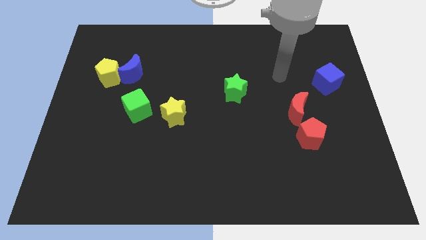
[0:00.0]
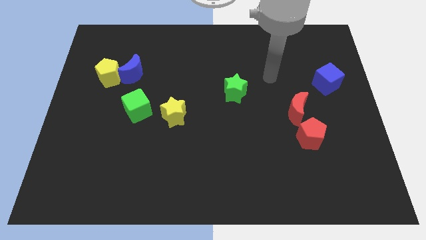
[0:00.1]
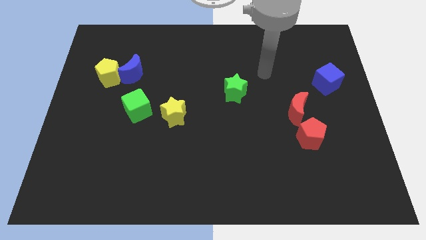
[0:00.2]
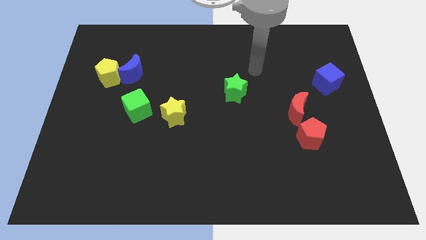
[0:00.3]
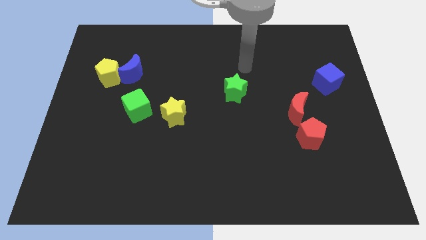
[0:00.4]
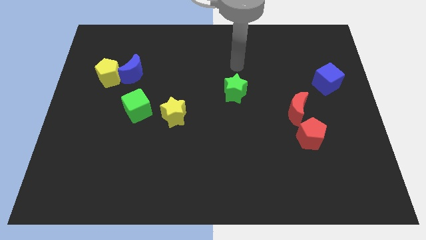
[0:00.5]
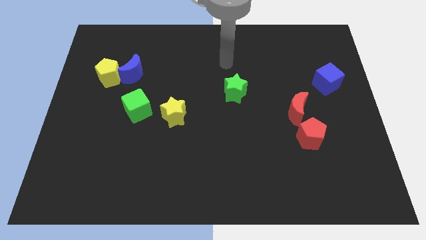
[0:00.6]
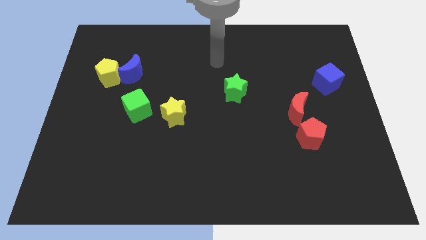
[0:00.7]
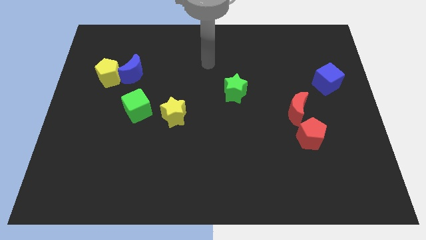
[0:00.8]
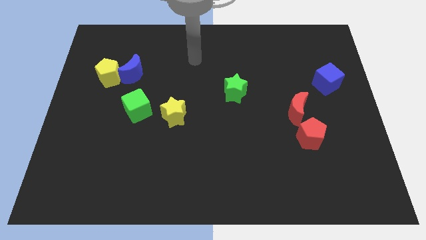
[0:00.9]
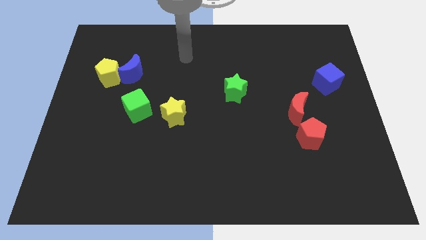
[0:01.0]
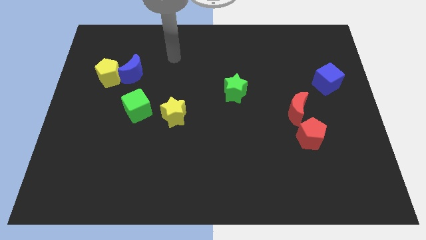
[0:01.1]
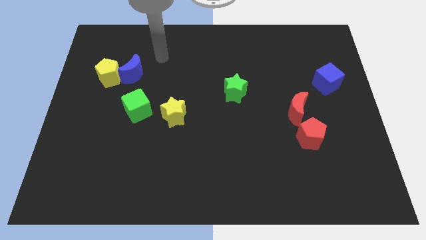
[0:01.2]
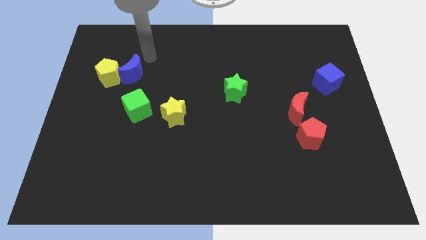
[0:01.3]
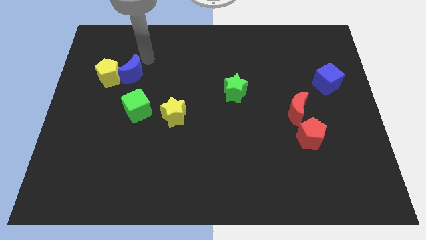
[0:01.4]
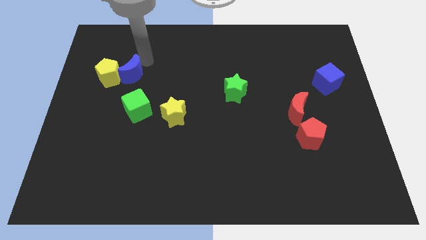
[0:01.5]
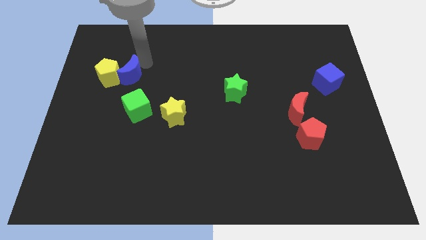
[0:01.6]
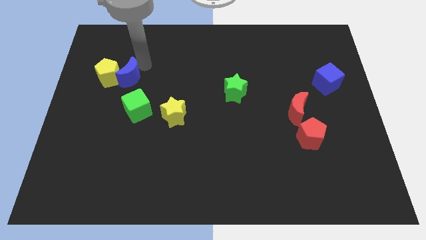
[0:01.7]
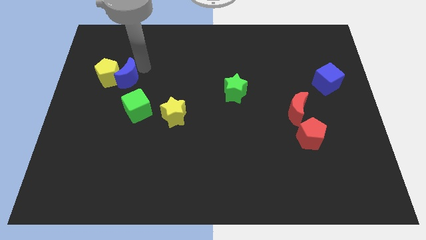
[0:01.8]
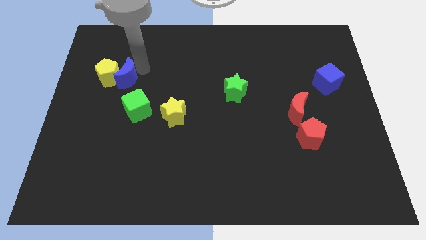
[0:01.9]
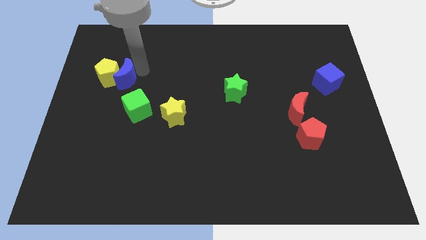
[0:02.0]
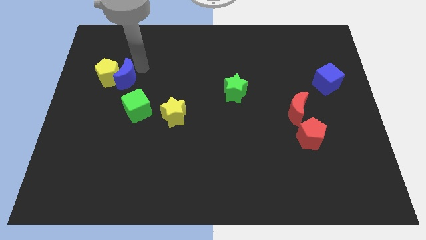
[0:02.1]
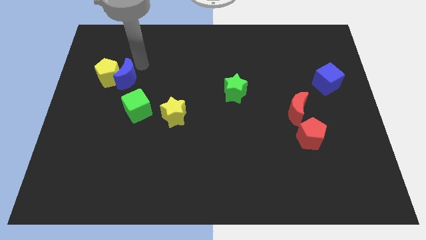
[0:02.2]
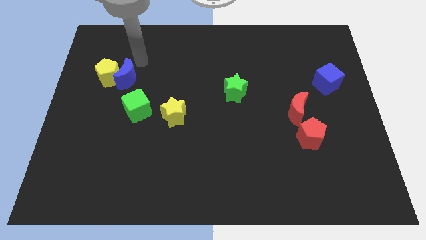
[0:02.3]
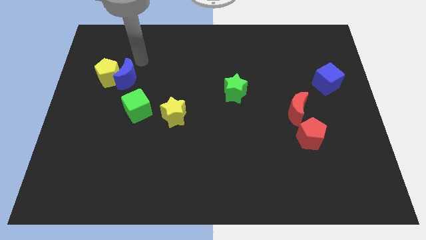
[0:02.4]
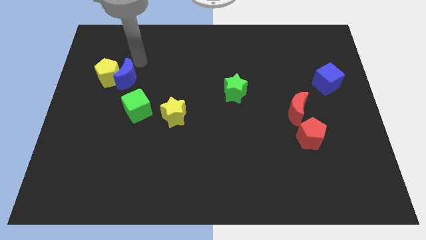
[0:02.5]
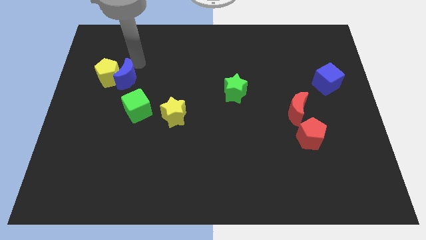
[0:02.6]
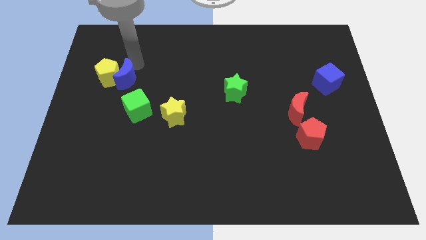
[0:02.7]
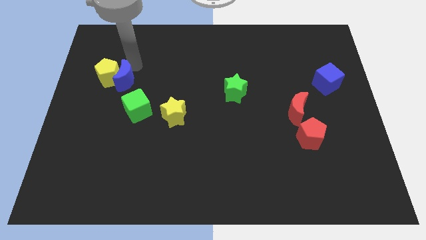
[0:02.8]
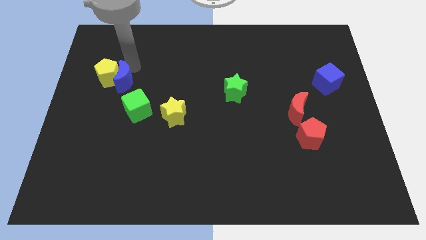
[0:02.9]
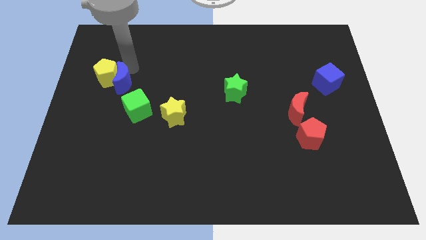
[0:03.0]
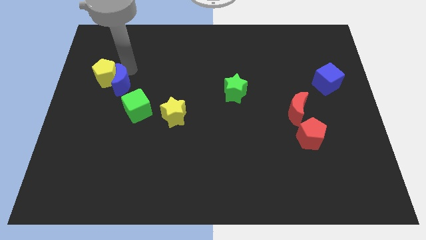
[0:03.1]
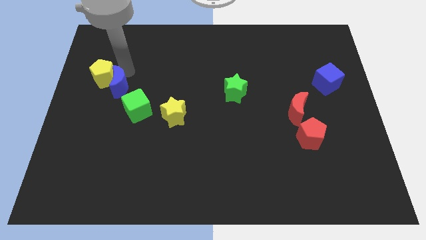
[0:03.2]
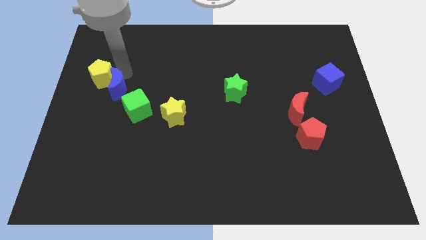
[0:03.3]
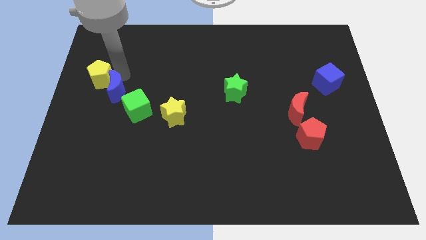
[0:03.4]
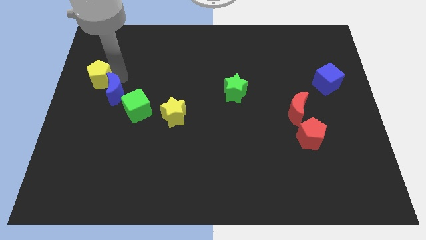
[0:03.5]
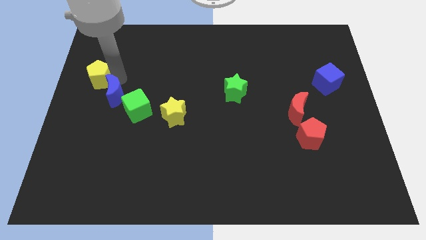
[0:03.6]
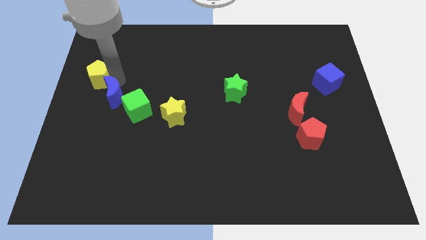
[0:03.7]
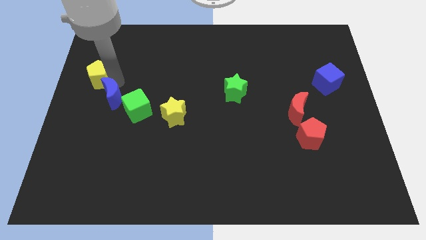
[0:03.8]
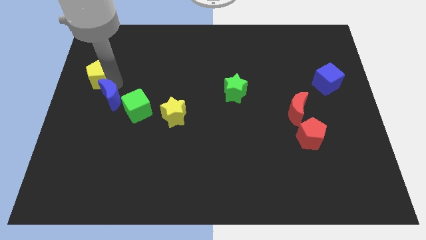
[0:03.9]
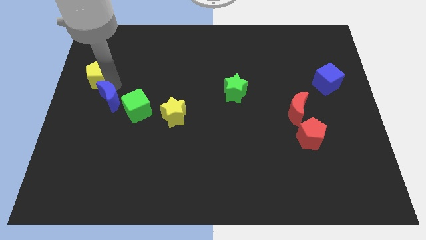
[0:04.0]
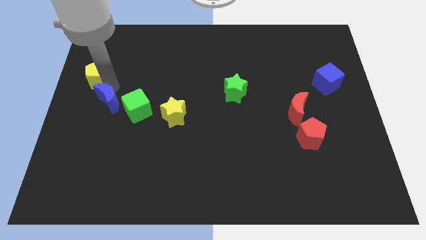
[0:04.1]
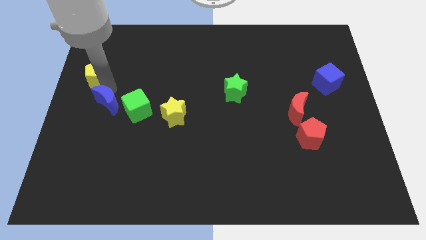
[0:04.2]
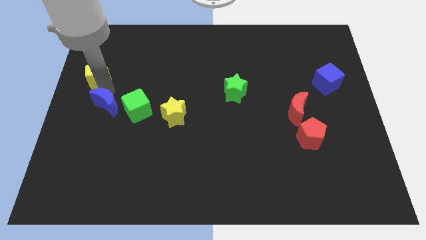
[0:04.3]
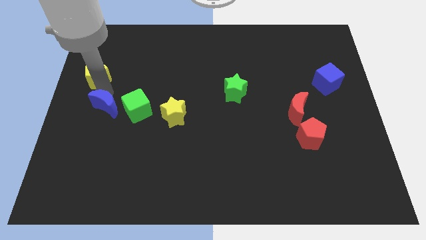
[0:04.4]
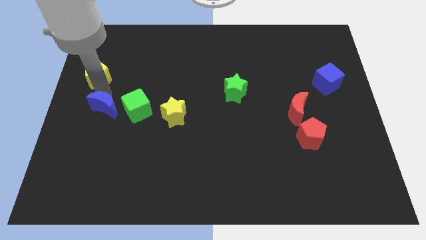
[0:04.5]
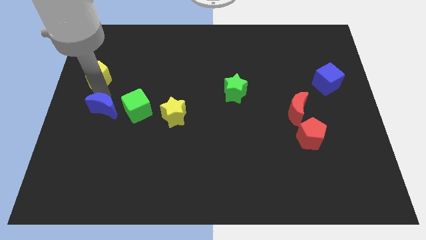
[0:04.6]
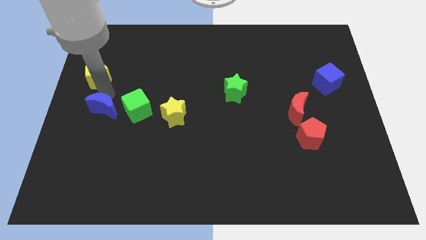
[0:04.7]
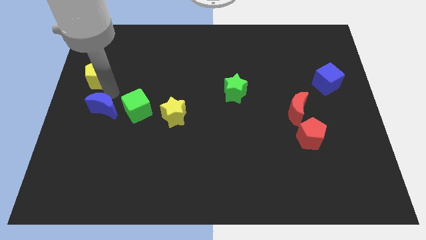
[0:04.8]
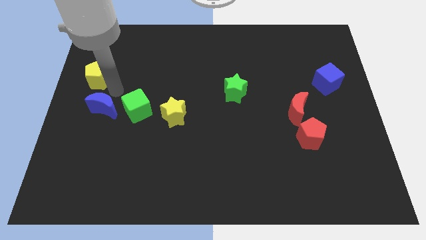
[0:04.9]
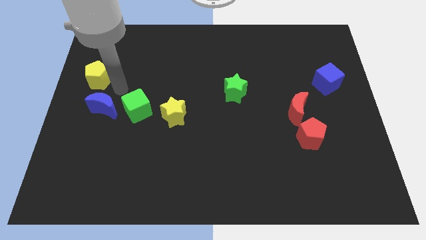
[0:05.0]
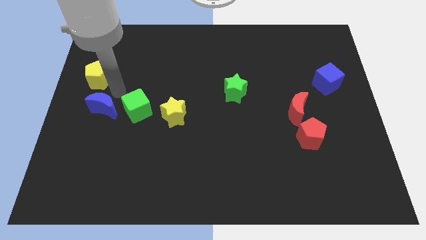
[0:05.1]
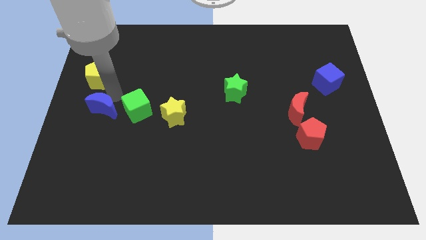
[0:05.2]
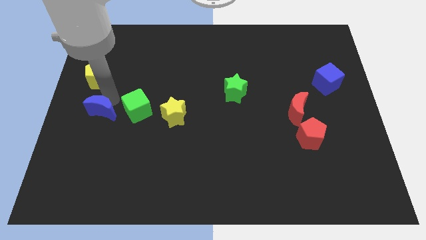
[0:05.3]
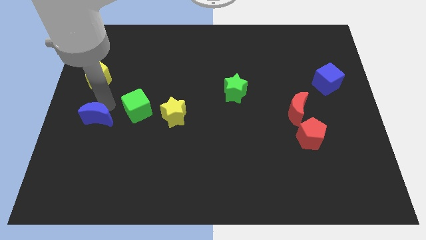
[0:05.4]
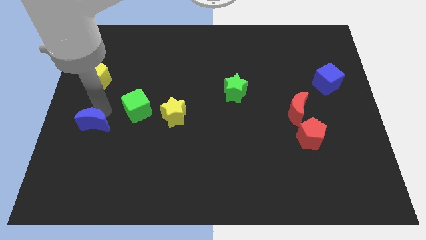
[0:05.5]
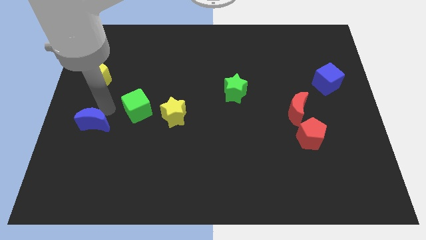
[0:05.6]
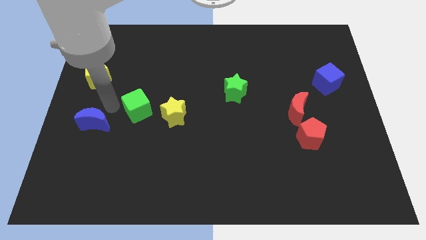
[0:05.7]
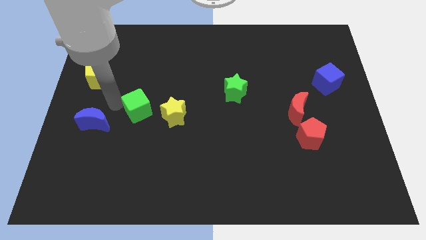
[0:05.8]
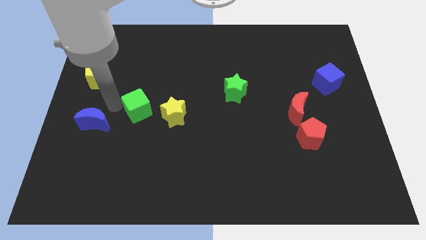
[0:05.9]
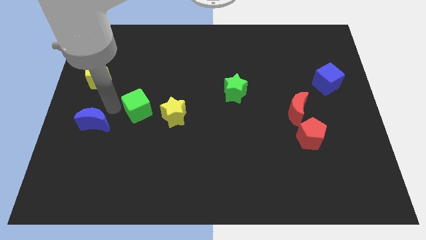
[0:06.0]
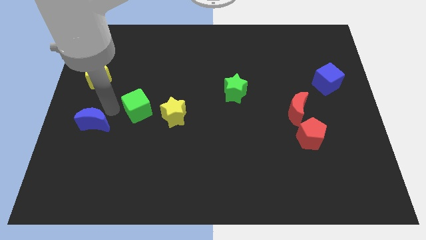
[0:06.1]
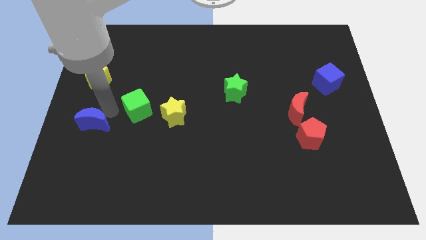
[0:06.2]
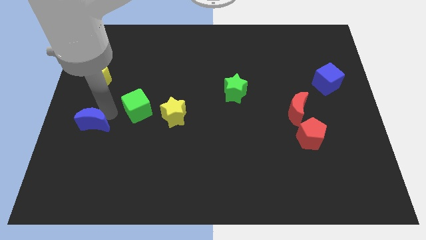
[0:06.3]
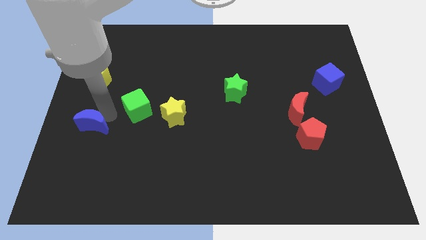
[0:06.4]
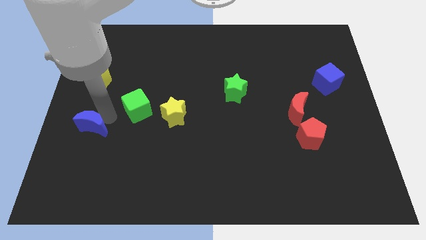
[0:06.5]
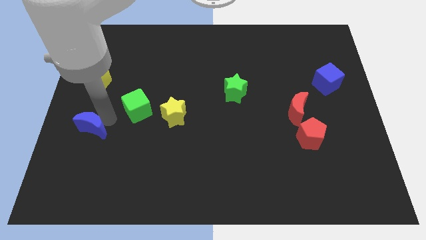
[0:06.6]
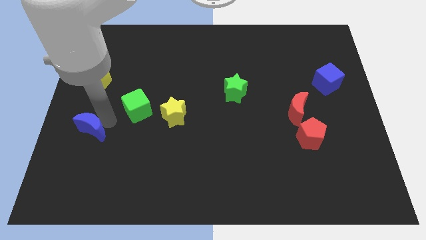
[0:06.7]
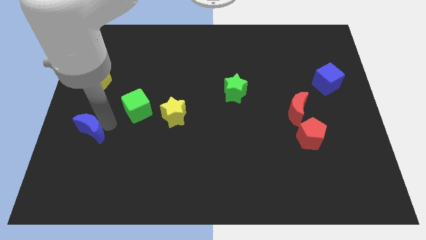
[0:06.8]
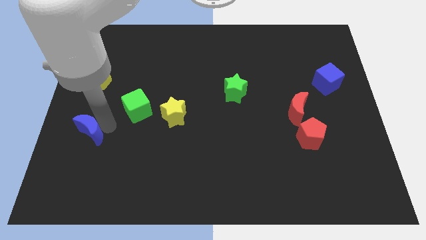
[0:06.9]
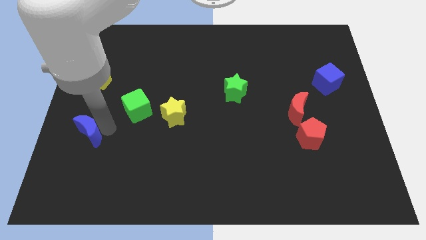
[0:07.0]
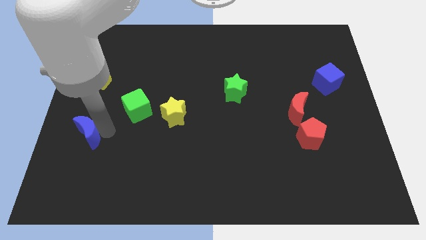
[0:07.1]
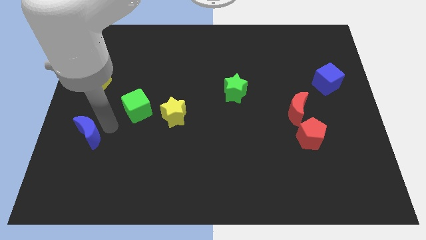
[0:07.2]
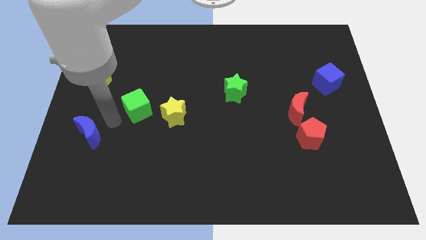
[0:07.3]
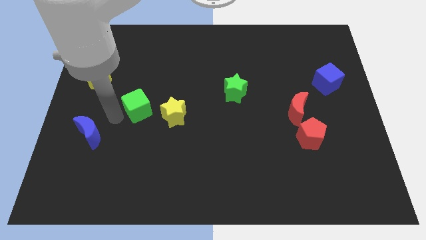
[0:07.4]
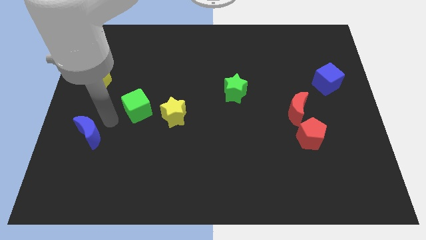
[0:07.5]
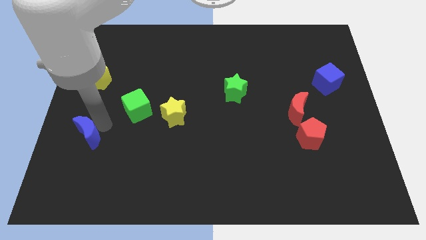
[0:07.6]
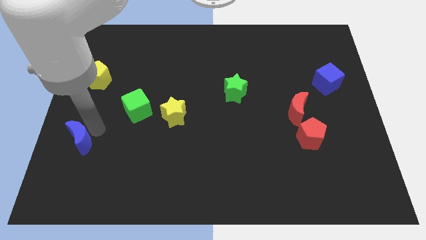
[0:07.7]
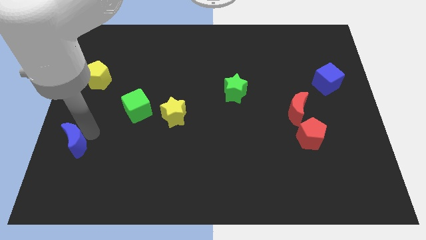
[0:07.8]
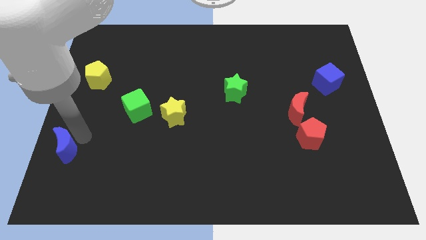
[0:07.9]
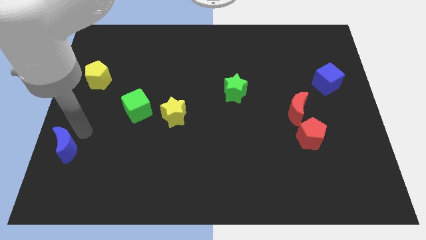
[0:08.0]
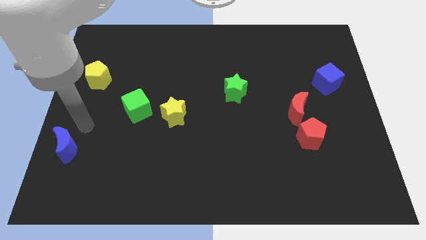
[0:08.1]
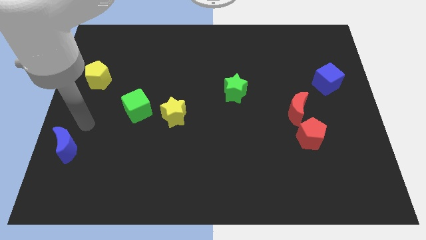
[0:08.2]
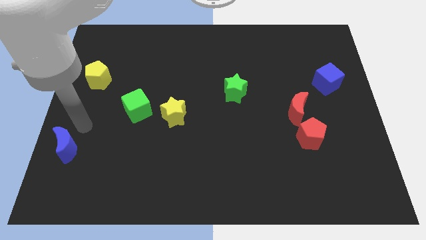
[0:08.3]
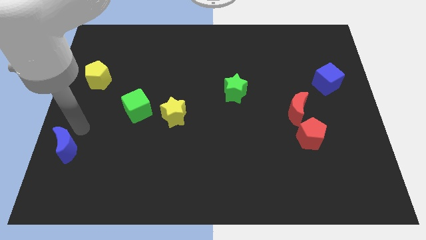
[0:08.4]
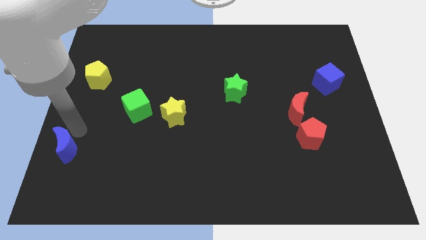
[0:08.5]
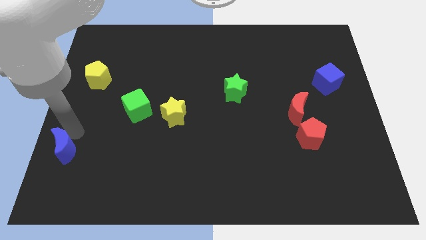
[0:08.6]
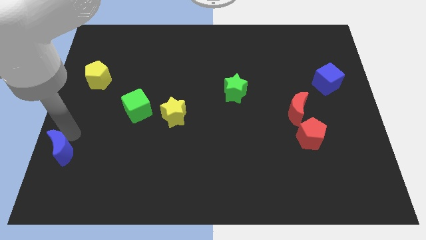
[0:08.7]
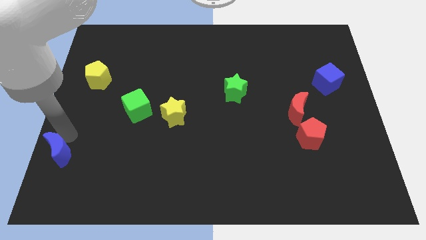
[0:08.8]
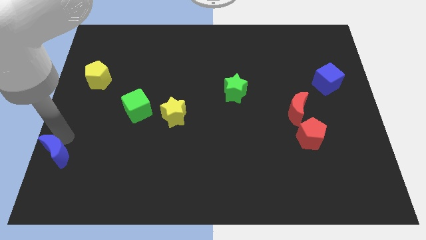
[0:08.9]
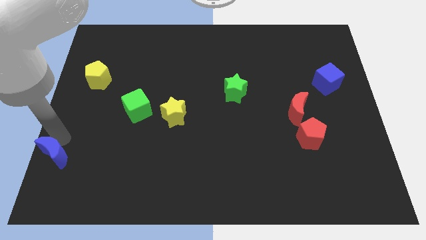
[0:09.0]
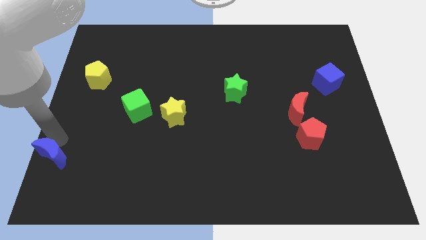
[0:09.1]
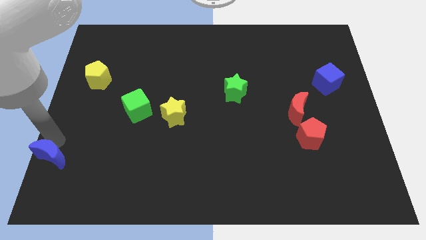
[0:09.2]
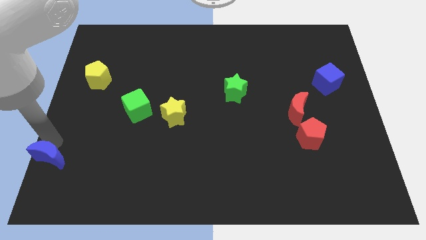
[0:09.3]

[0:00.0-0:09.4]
slide the blue moon to the bottom left
